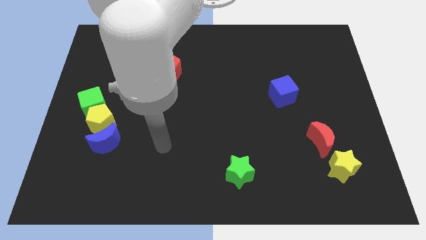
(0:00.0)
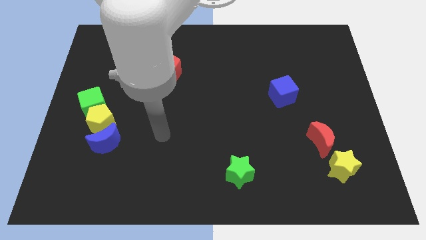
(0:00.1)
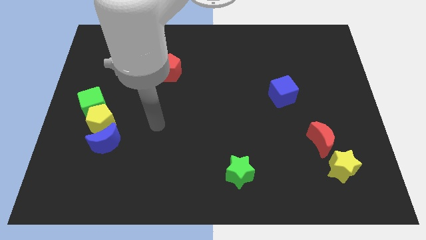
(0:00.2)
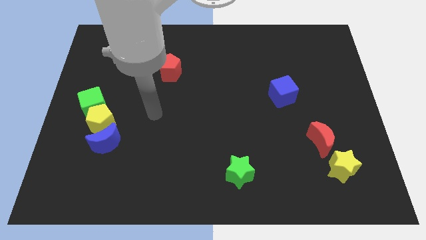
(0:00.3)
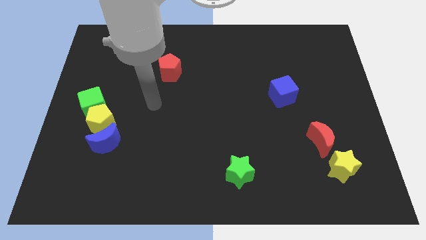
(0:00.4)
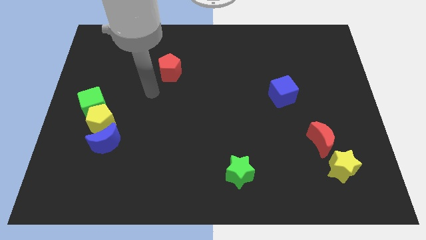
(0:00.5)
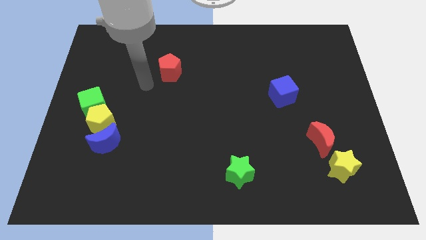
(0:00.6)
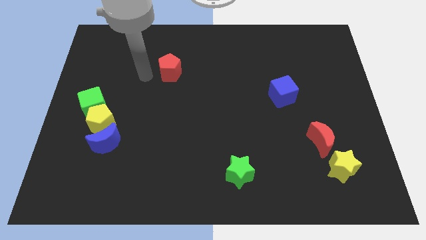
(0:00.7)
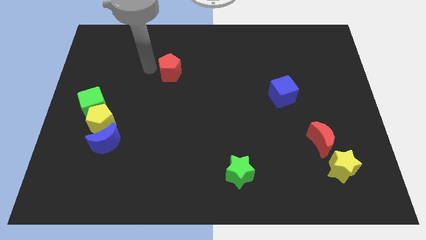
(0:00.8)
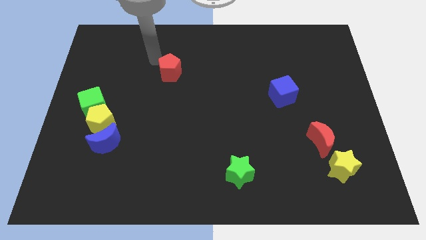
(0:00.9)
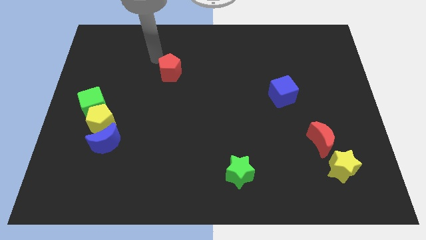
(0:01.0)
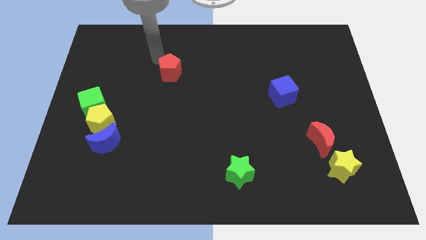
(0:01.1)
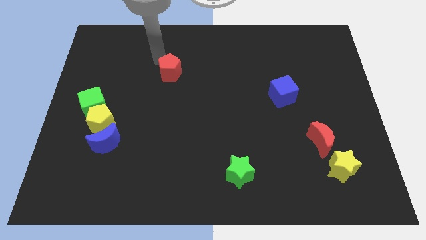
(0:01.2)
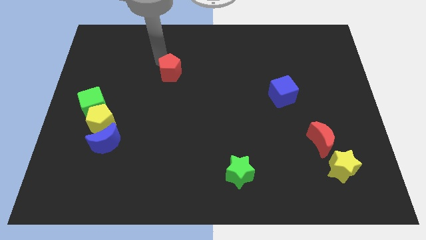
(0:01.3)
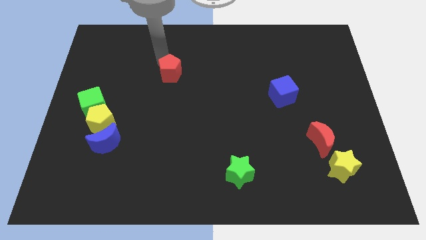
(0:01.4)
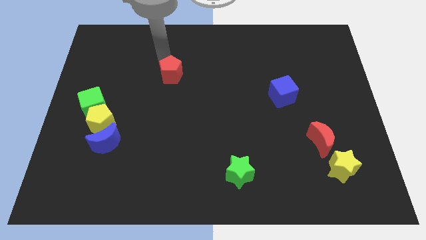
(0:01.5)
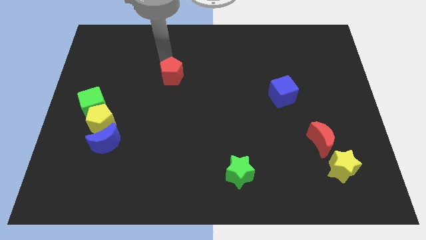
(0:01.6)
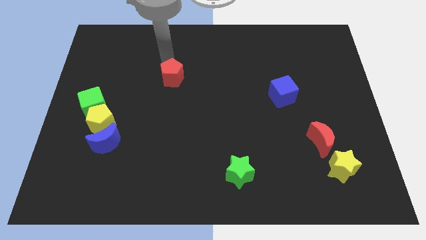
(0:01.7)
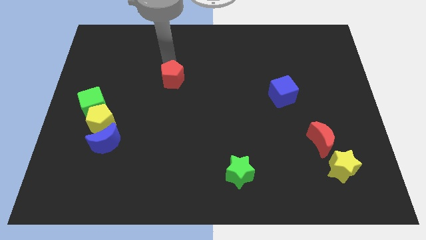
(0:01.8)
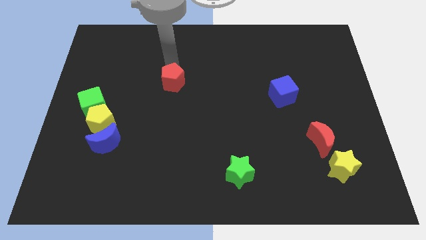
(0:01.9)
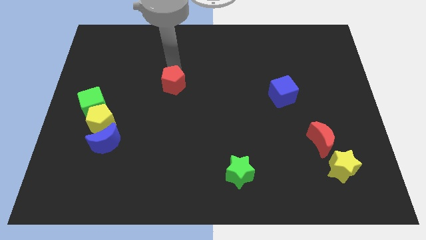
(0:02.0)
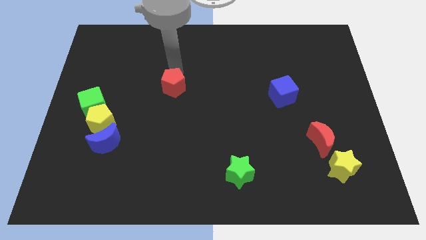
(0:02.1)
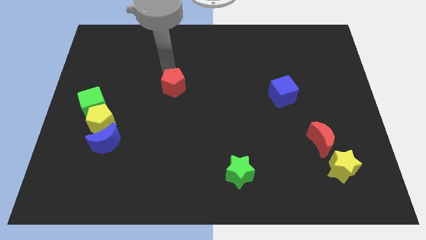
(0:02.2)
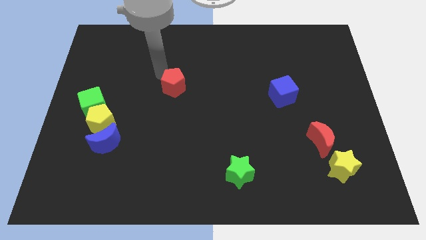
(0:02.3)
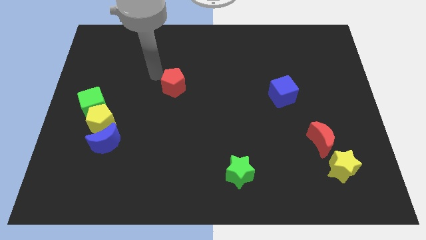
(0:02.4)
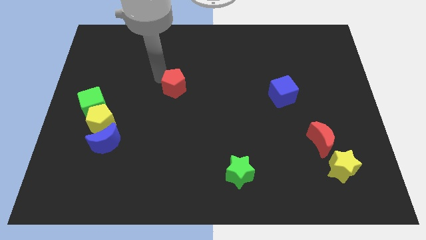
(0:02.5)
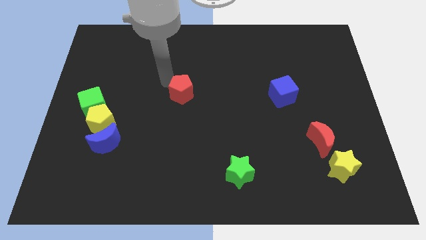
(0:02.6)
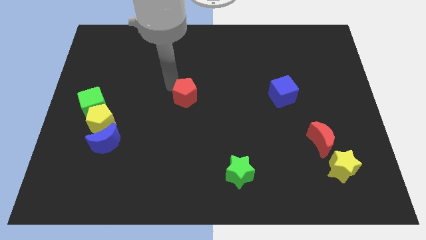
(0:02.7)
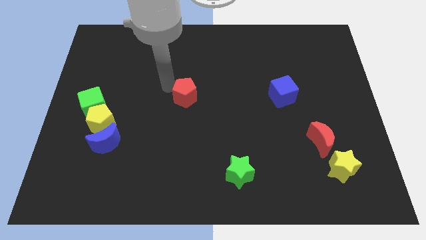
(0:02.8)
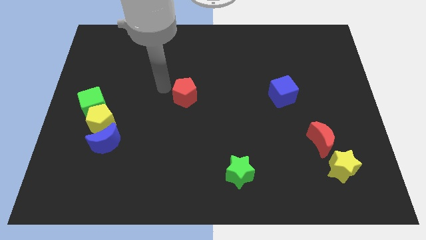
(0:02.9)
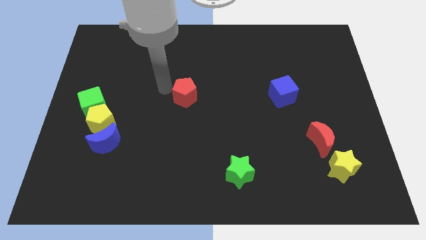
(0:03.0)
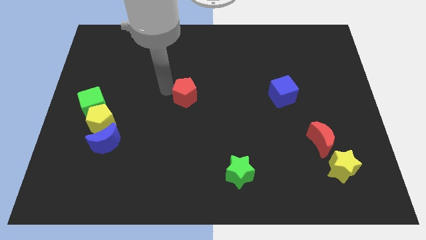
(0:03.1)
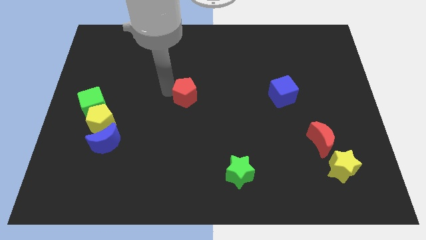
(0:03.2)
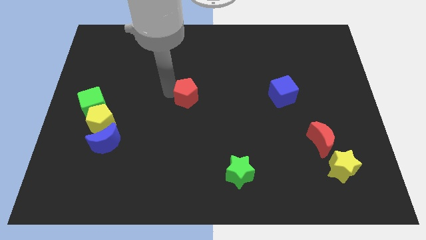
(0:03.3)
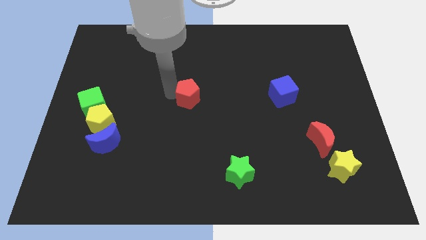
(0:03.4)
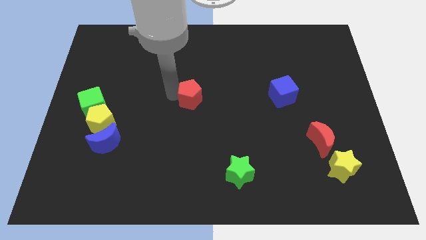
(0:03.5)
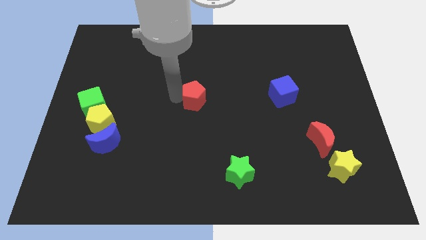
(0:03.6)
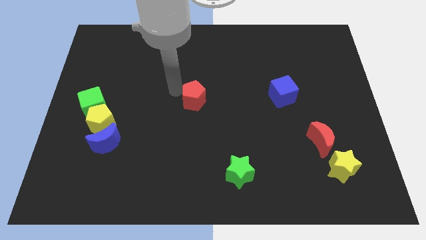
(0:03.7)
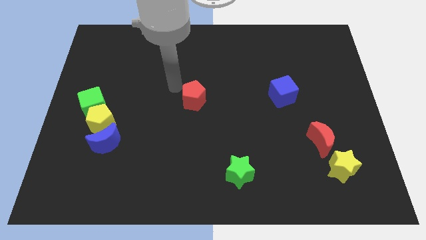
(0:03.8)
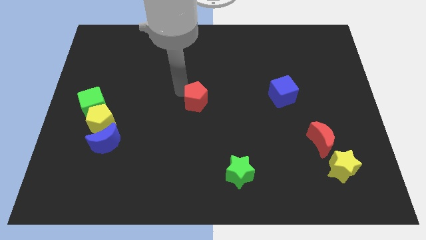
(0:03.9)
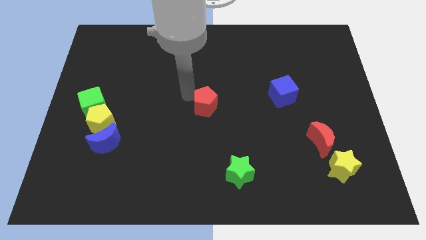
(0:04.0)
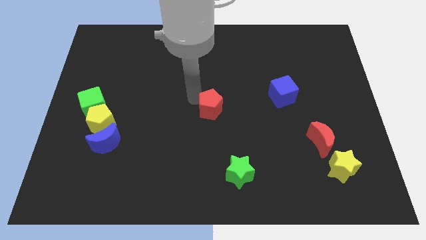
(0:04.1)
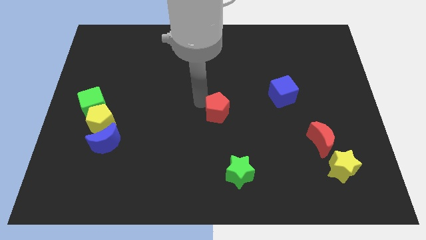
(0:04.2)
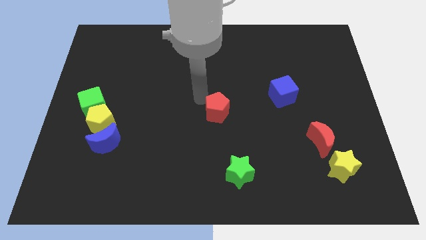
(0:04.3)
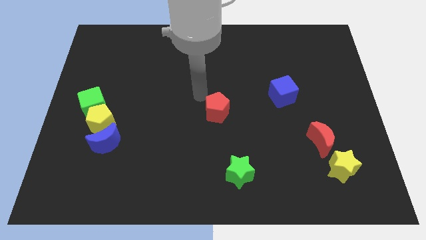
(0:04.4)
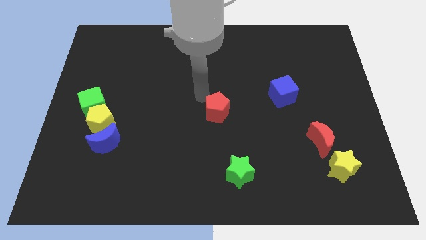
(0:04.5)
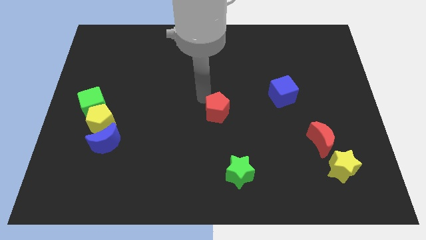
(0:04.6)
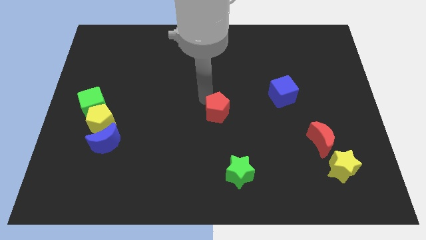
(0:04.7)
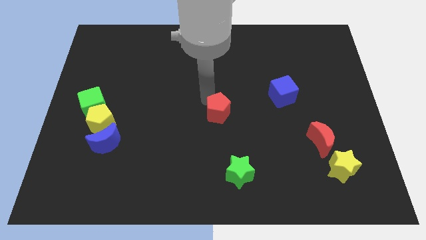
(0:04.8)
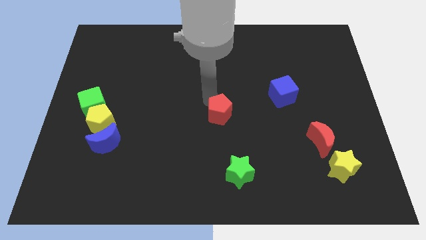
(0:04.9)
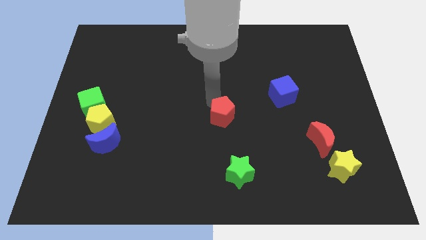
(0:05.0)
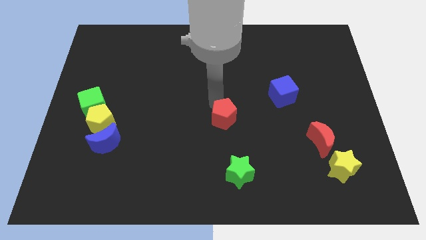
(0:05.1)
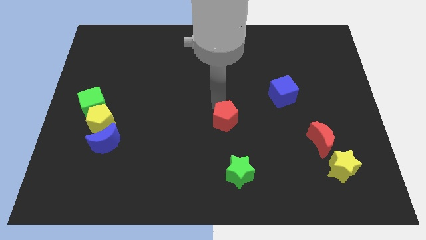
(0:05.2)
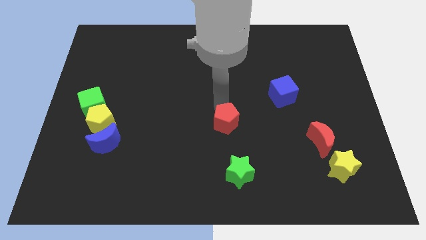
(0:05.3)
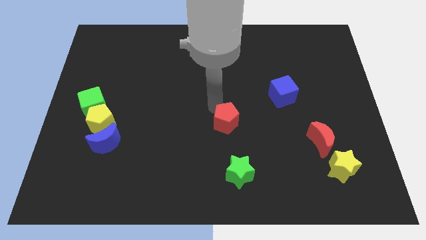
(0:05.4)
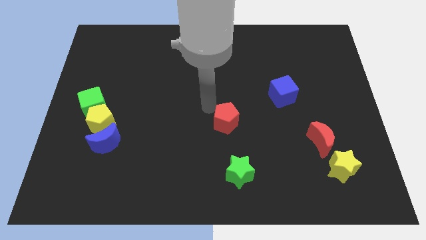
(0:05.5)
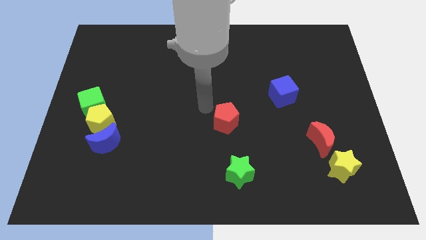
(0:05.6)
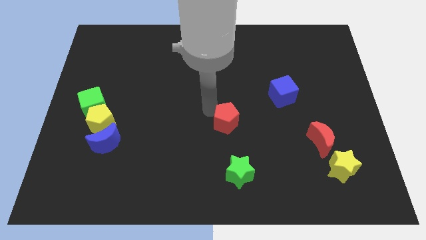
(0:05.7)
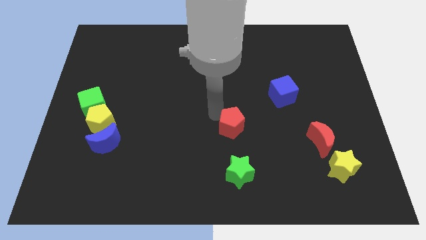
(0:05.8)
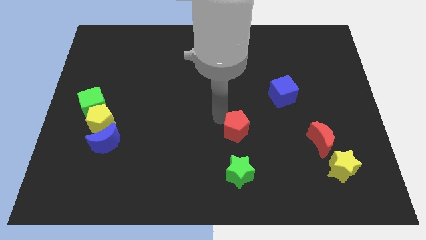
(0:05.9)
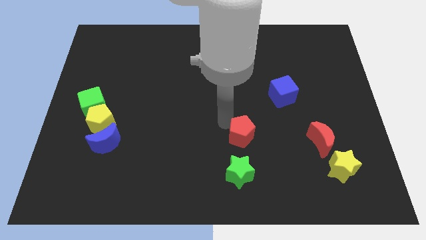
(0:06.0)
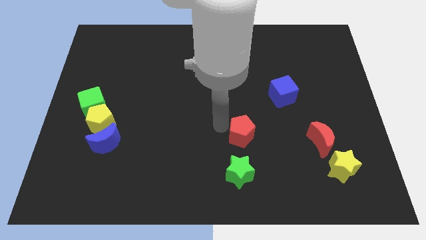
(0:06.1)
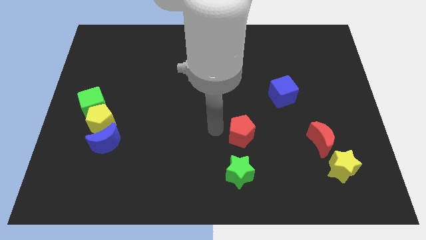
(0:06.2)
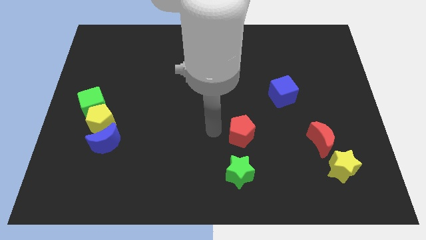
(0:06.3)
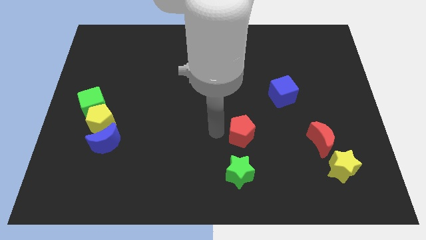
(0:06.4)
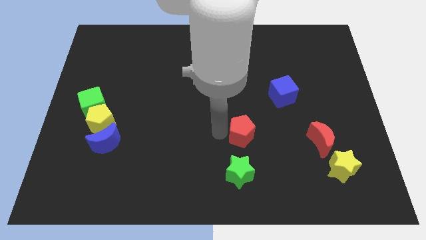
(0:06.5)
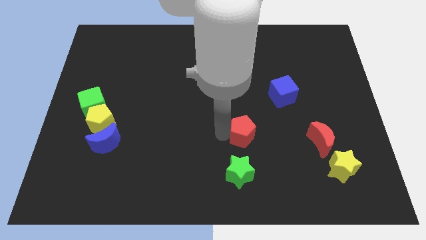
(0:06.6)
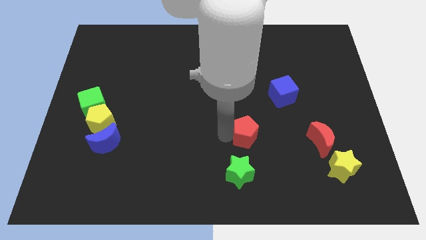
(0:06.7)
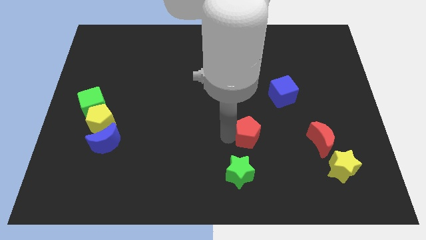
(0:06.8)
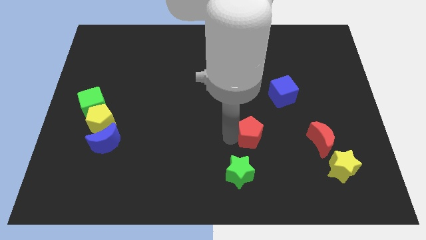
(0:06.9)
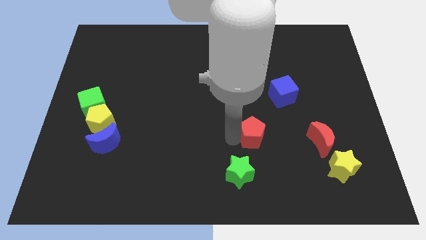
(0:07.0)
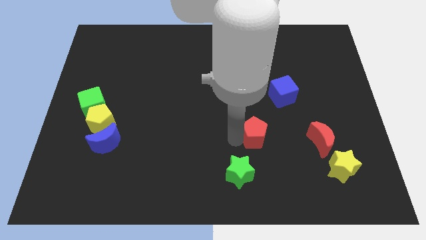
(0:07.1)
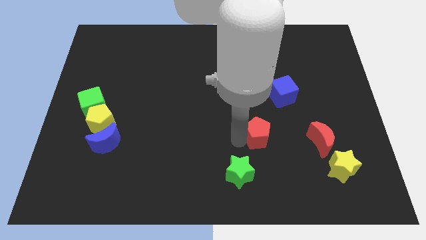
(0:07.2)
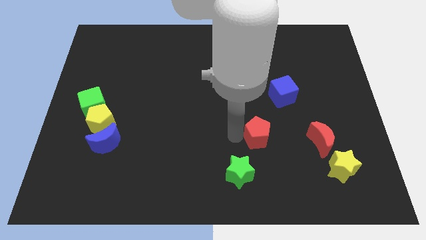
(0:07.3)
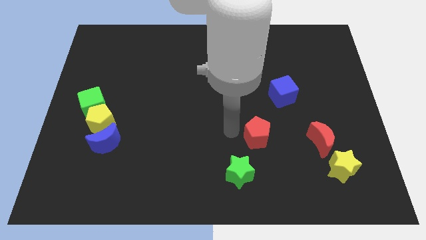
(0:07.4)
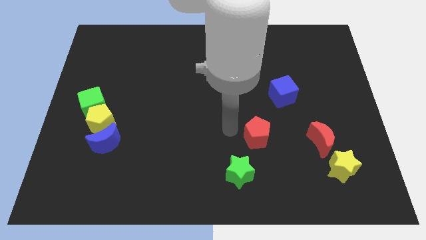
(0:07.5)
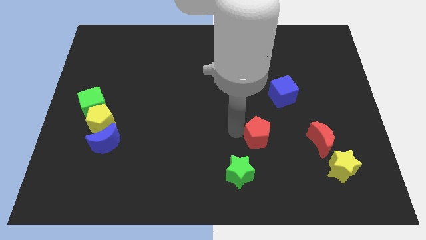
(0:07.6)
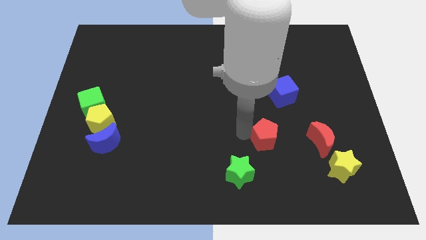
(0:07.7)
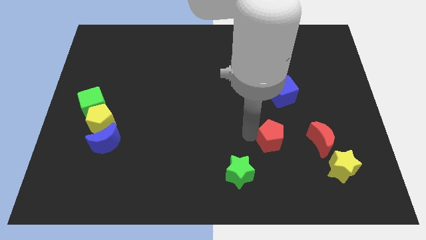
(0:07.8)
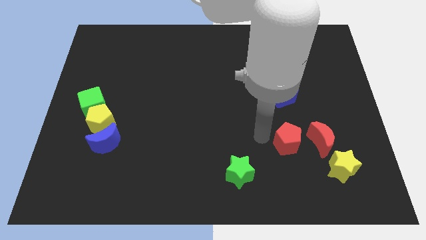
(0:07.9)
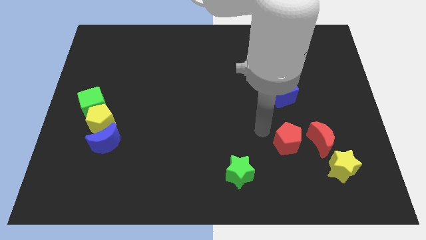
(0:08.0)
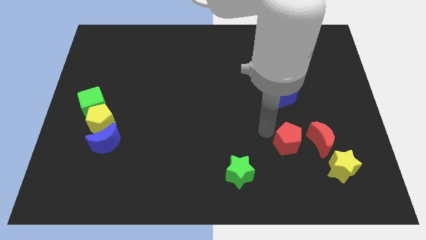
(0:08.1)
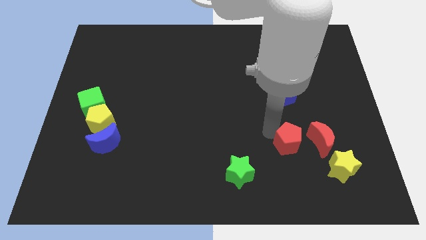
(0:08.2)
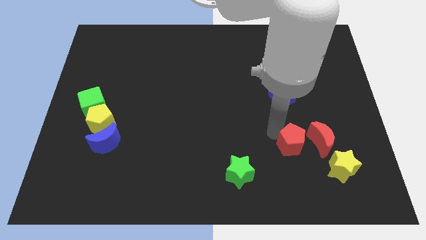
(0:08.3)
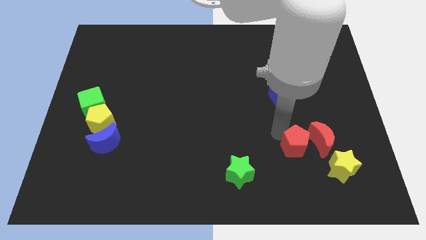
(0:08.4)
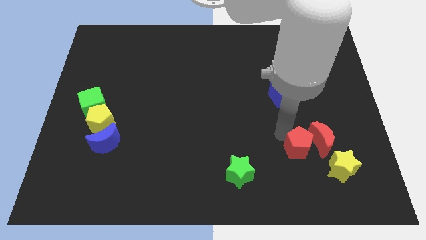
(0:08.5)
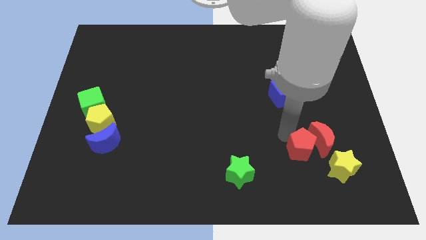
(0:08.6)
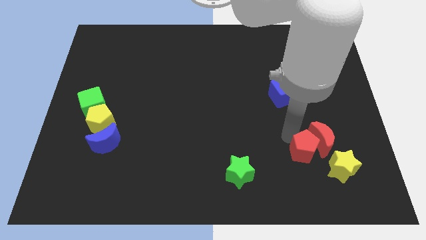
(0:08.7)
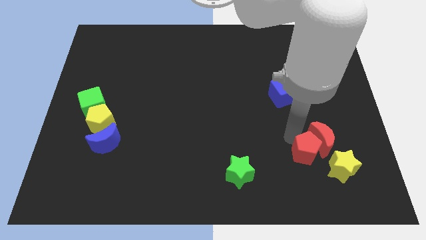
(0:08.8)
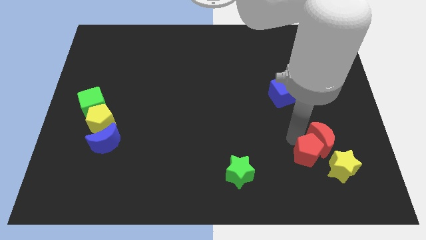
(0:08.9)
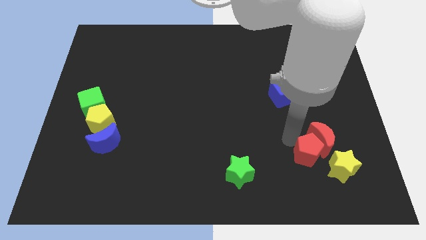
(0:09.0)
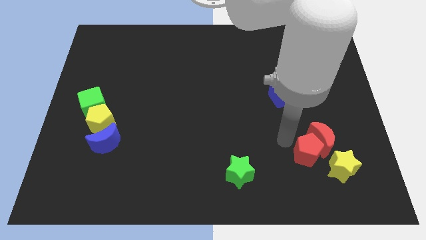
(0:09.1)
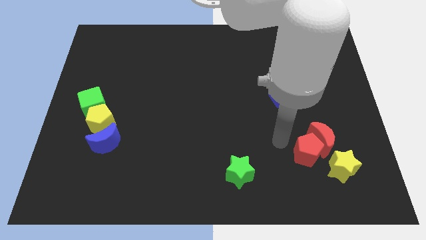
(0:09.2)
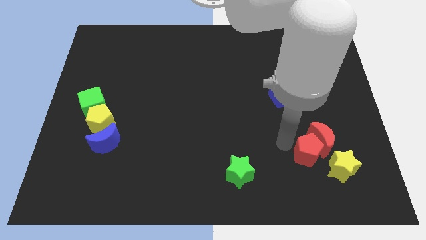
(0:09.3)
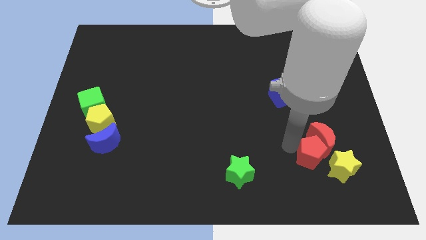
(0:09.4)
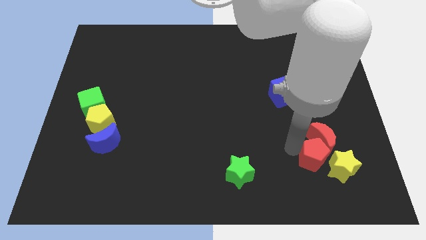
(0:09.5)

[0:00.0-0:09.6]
move the red pentagon towards the yellow star
